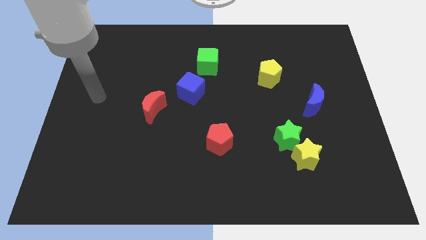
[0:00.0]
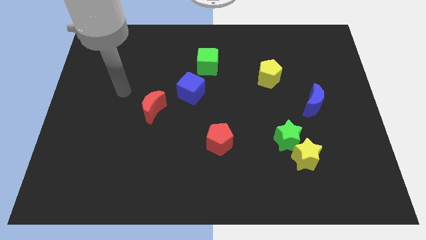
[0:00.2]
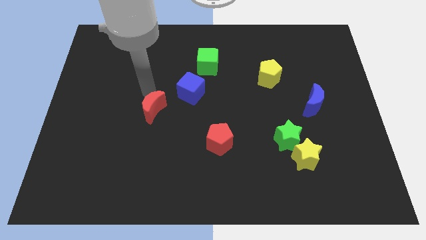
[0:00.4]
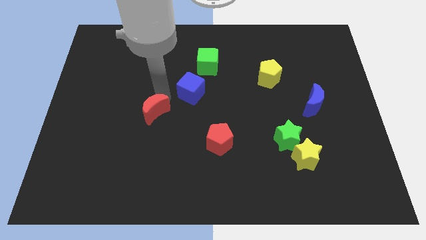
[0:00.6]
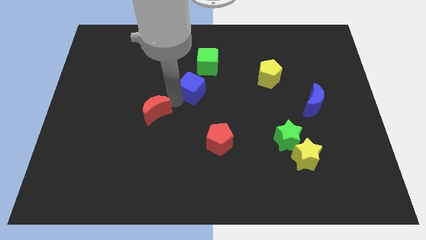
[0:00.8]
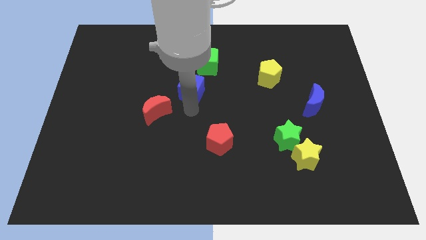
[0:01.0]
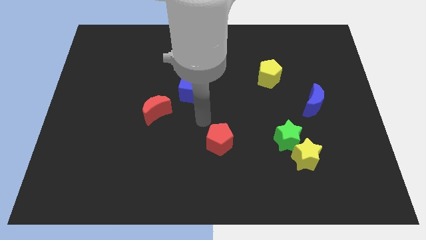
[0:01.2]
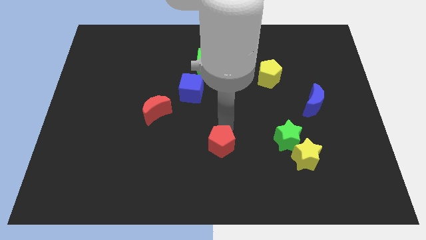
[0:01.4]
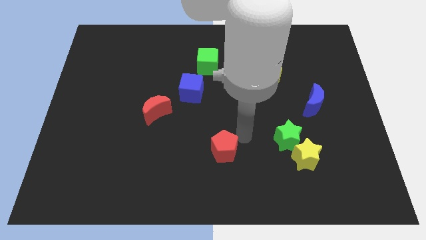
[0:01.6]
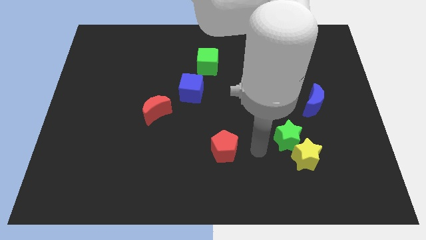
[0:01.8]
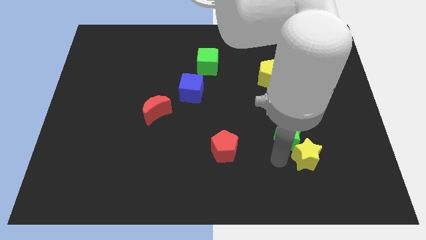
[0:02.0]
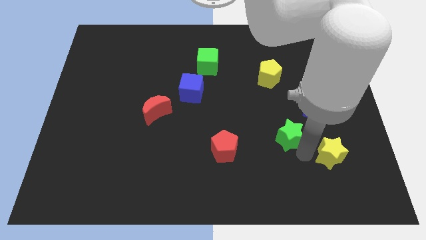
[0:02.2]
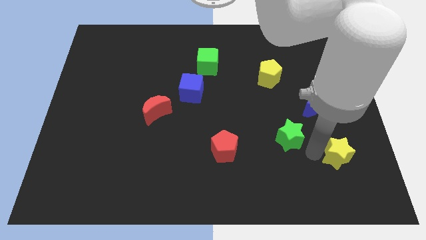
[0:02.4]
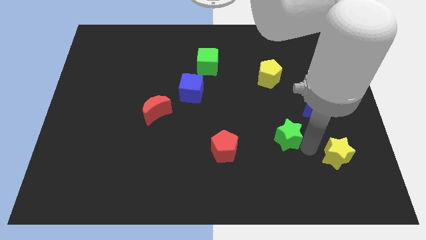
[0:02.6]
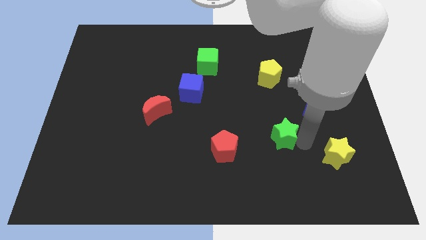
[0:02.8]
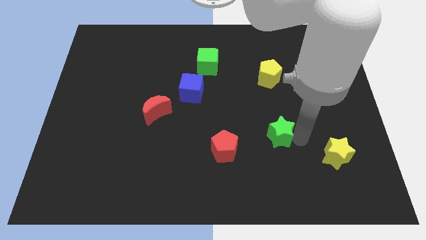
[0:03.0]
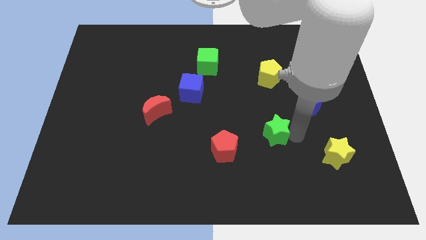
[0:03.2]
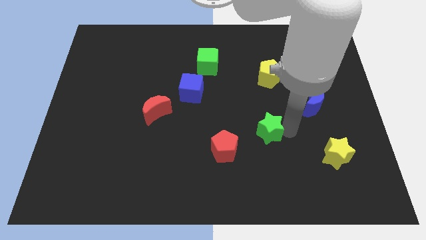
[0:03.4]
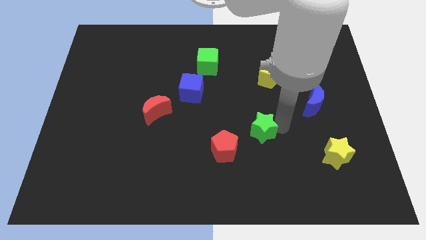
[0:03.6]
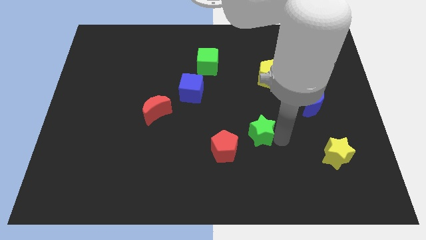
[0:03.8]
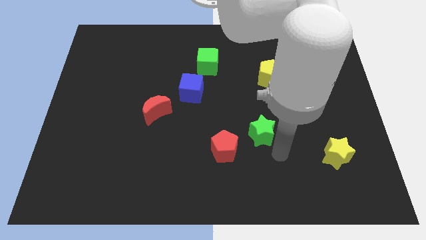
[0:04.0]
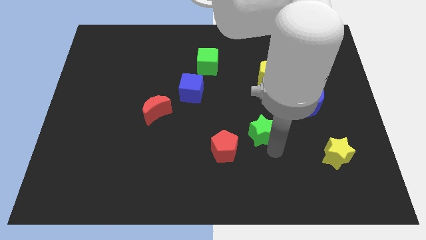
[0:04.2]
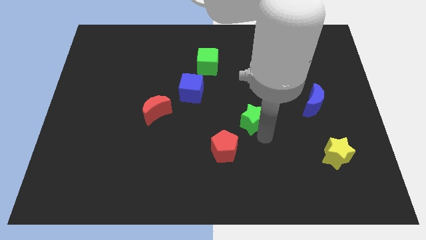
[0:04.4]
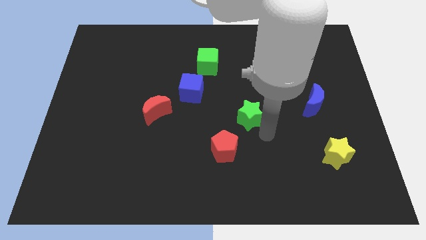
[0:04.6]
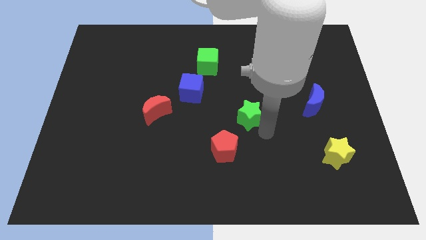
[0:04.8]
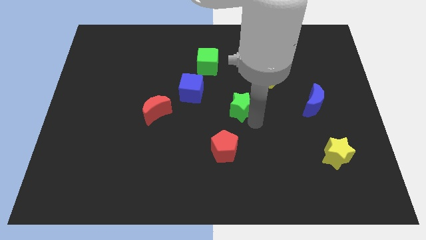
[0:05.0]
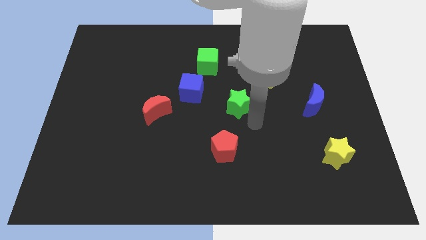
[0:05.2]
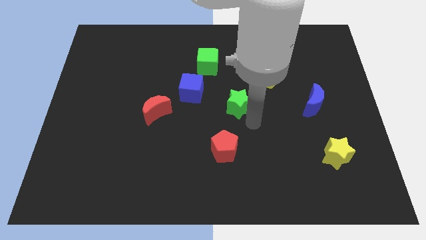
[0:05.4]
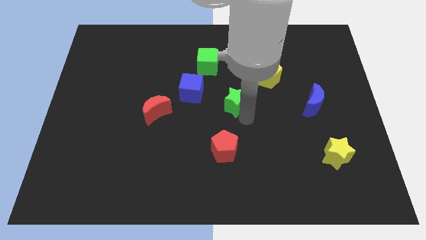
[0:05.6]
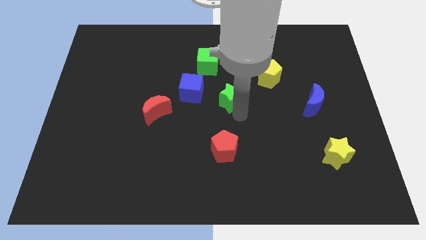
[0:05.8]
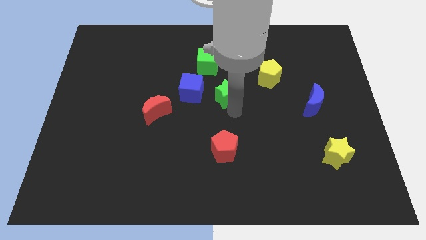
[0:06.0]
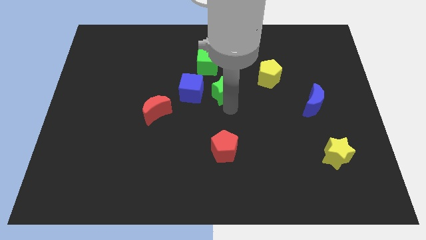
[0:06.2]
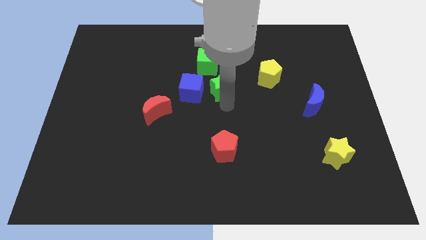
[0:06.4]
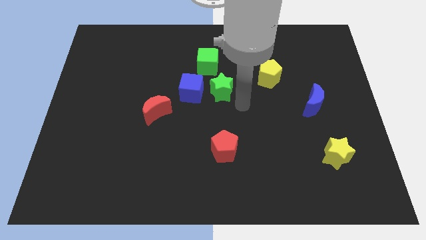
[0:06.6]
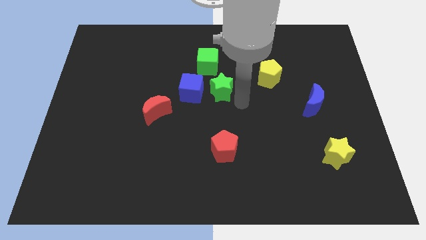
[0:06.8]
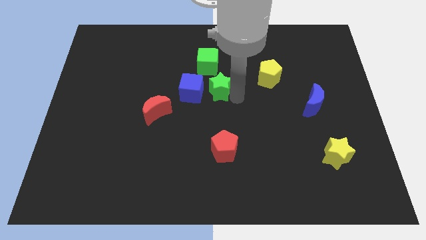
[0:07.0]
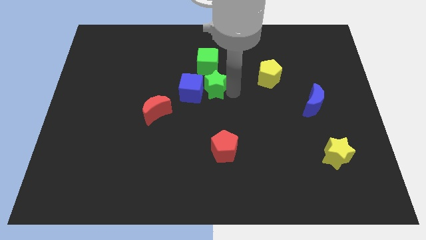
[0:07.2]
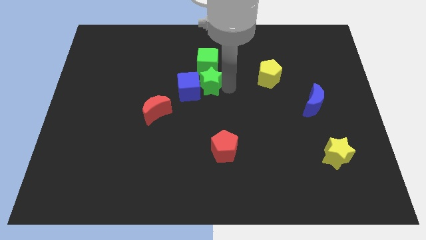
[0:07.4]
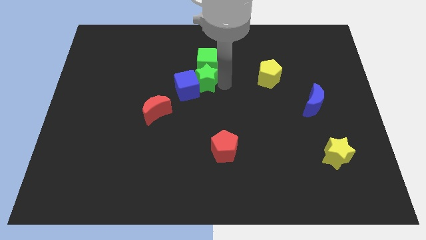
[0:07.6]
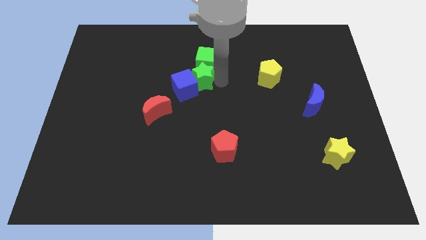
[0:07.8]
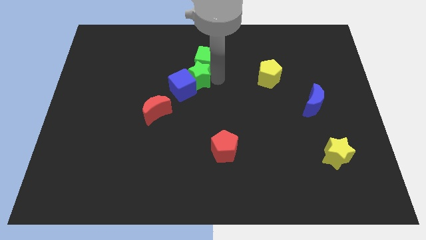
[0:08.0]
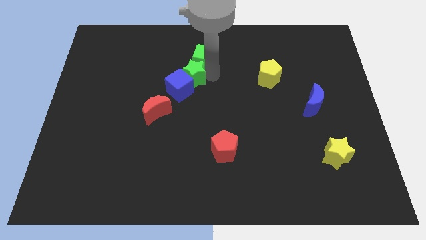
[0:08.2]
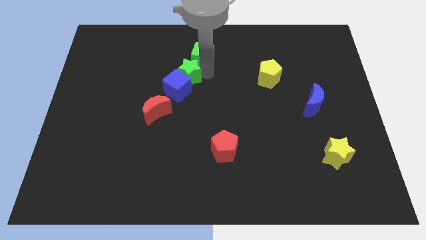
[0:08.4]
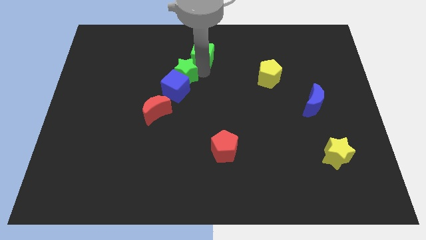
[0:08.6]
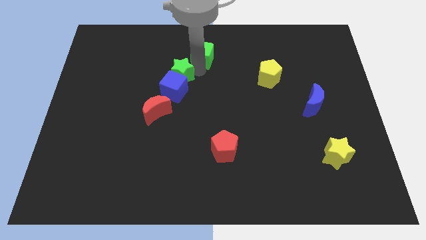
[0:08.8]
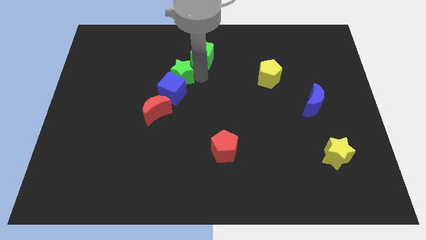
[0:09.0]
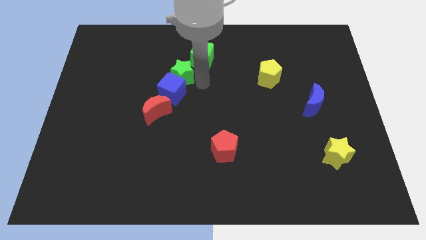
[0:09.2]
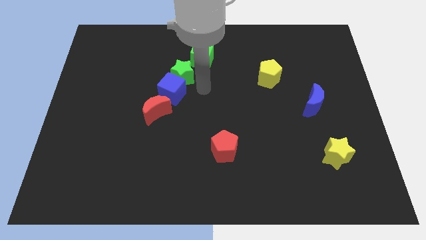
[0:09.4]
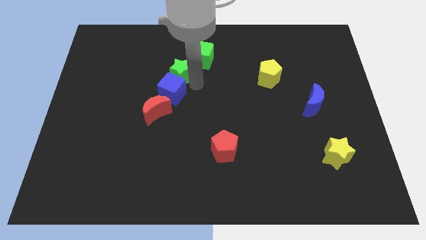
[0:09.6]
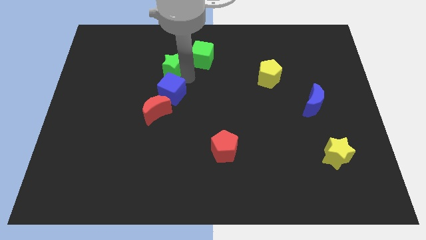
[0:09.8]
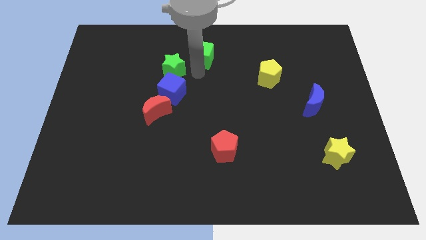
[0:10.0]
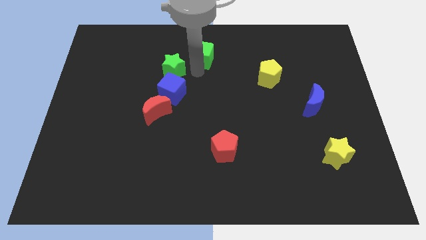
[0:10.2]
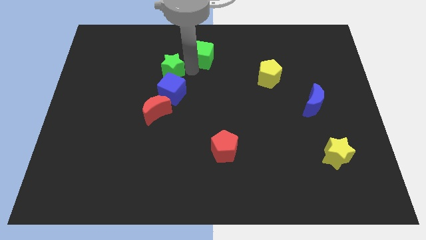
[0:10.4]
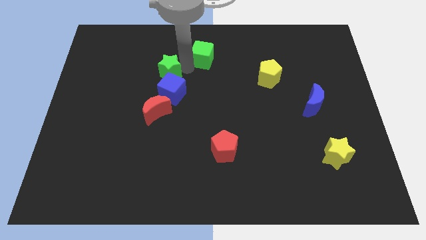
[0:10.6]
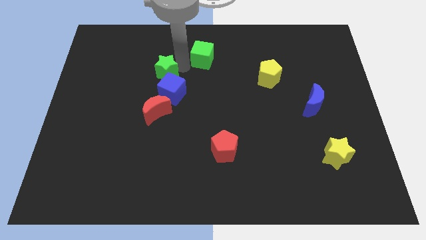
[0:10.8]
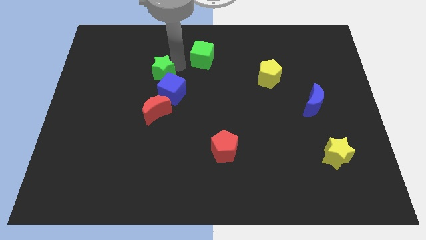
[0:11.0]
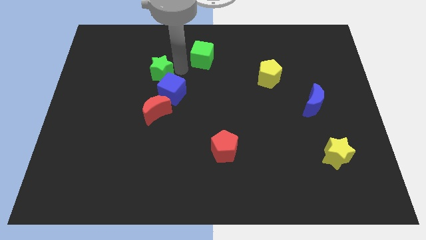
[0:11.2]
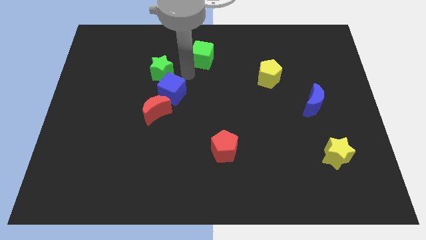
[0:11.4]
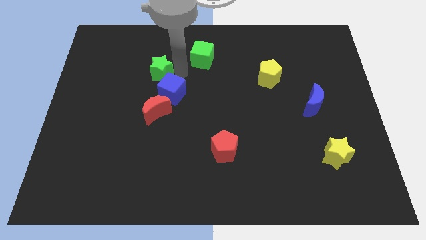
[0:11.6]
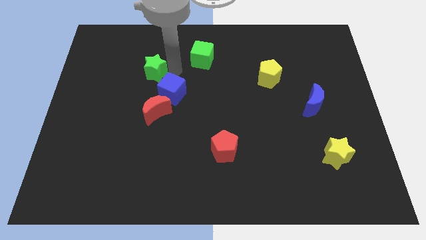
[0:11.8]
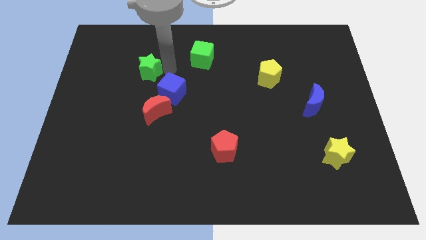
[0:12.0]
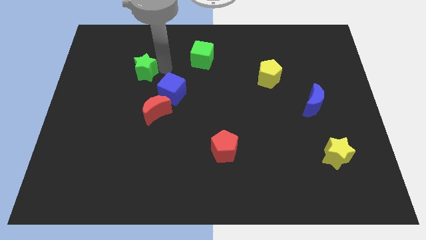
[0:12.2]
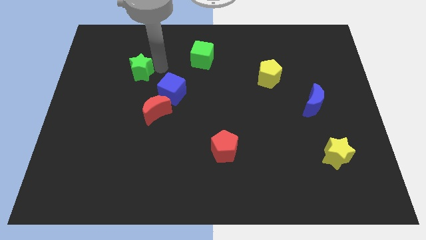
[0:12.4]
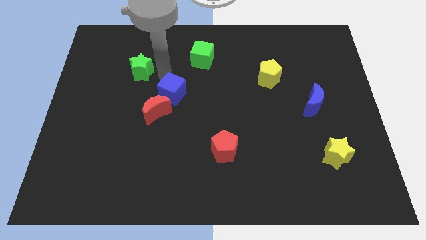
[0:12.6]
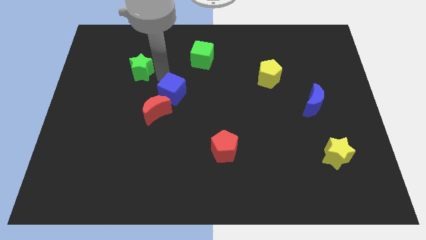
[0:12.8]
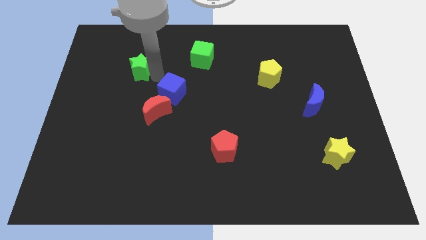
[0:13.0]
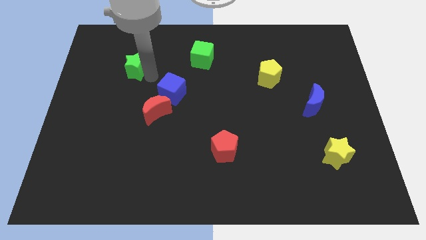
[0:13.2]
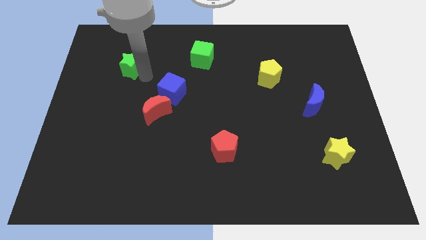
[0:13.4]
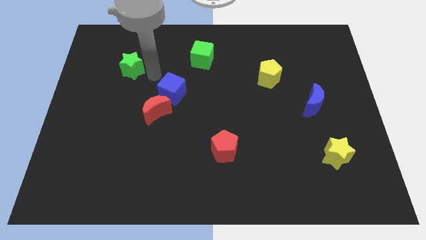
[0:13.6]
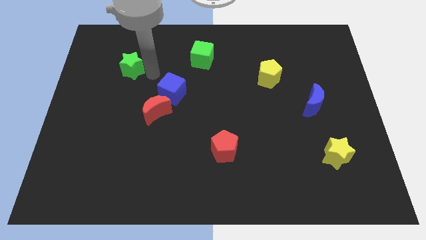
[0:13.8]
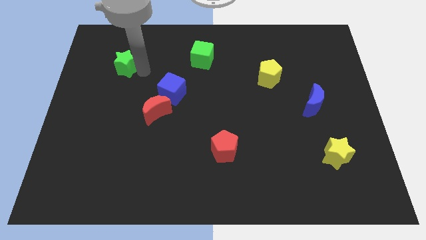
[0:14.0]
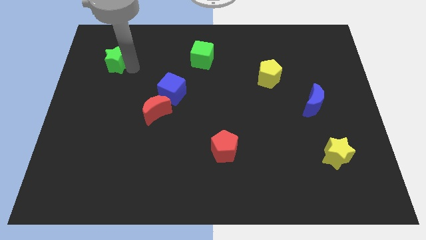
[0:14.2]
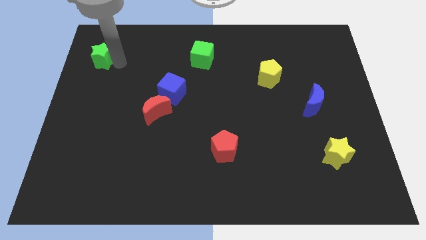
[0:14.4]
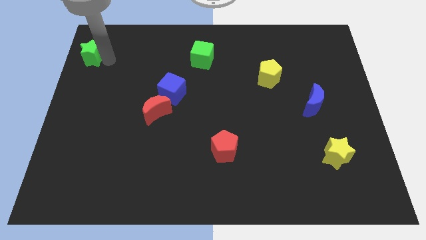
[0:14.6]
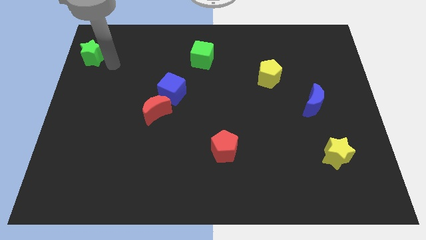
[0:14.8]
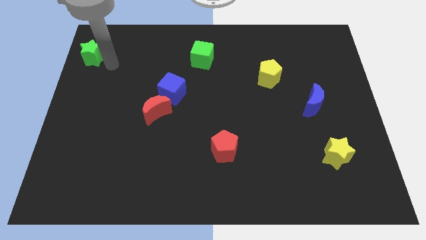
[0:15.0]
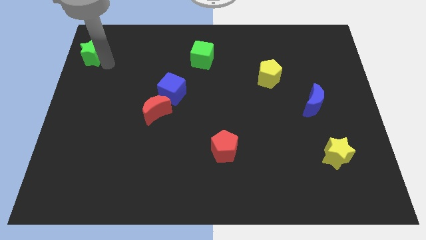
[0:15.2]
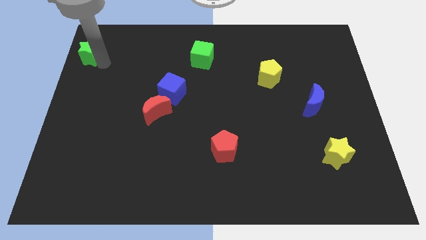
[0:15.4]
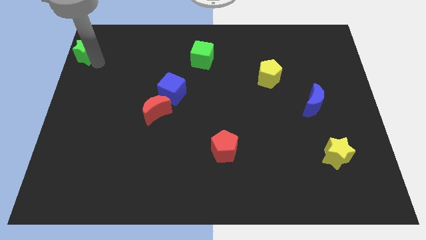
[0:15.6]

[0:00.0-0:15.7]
move the green star to the top left corner
